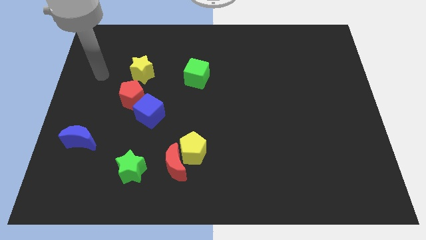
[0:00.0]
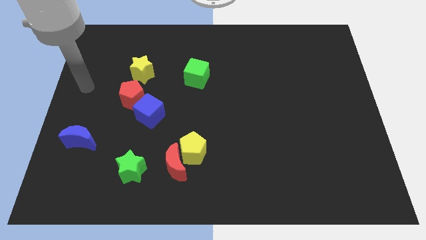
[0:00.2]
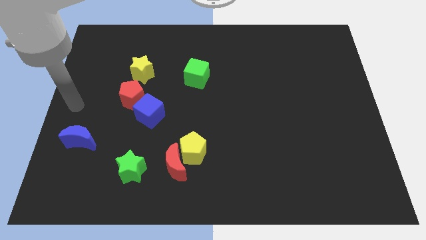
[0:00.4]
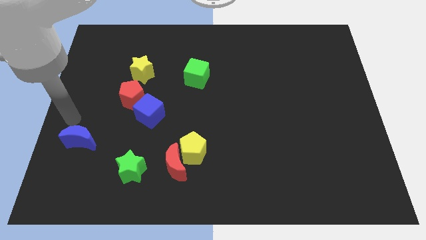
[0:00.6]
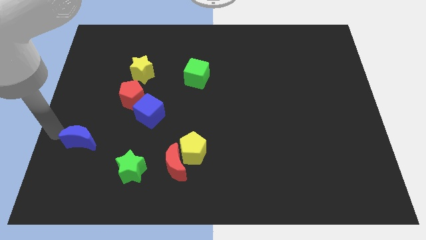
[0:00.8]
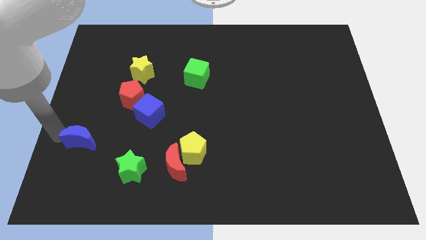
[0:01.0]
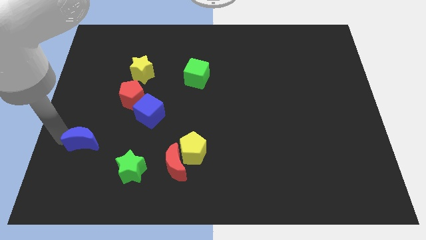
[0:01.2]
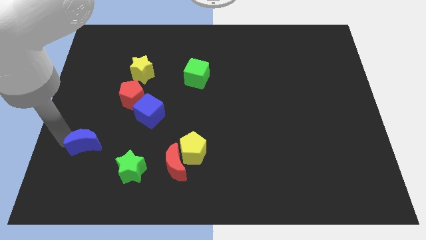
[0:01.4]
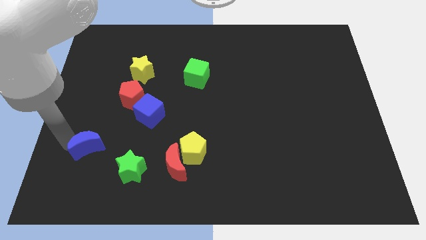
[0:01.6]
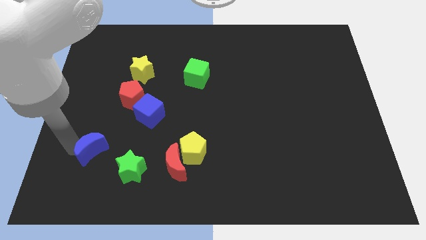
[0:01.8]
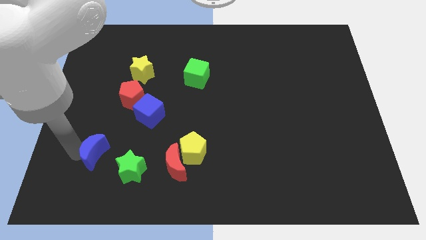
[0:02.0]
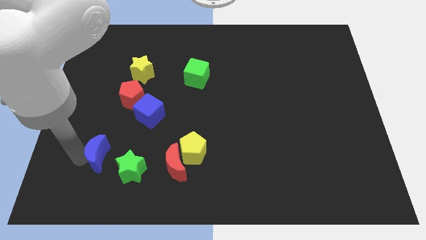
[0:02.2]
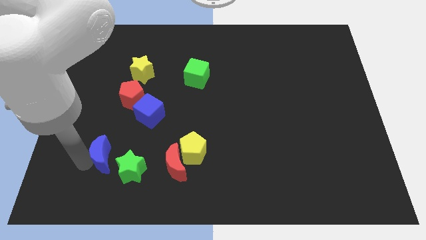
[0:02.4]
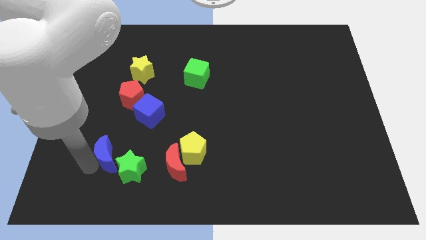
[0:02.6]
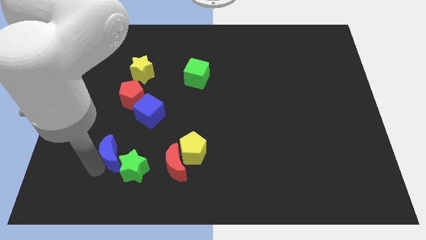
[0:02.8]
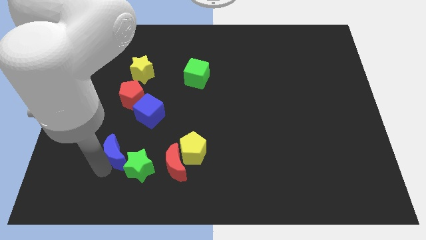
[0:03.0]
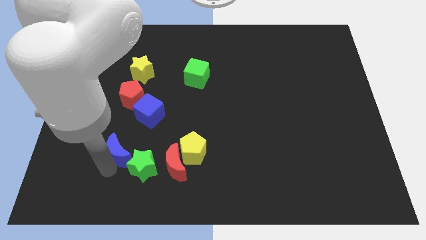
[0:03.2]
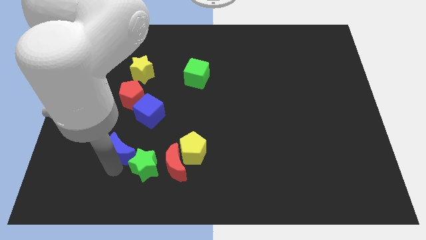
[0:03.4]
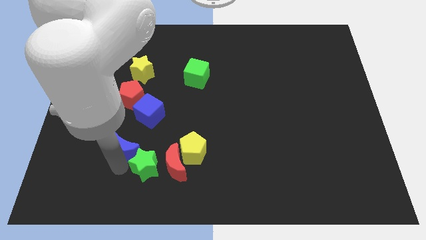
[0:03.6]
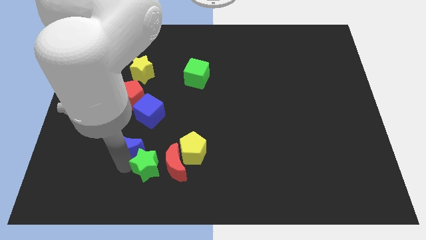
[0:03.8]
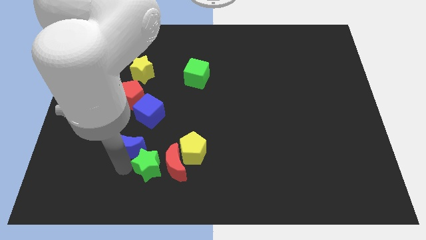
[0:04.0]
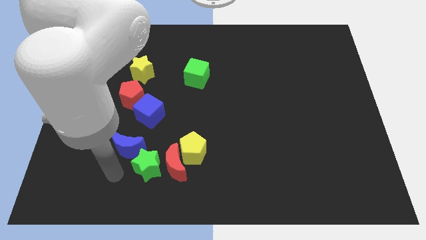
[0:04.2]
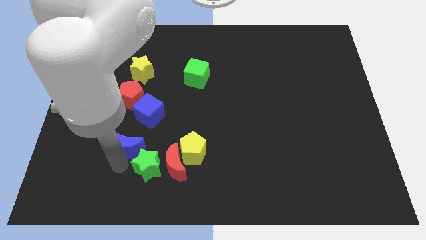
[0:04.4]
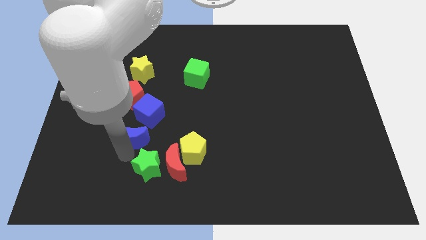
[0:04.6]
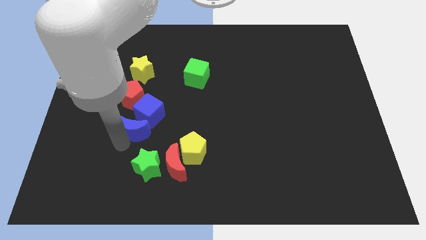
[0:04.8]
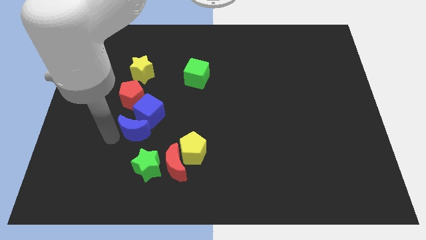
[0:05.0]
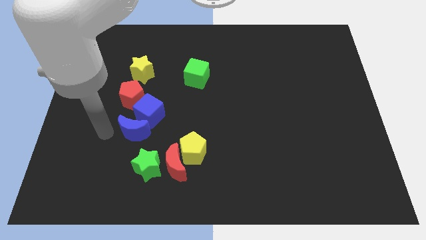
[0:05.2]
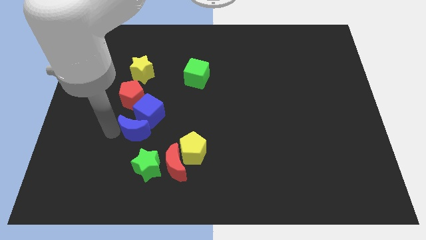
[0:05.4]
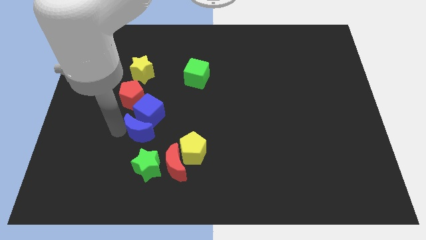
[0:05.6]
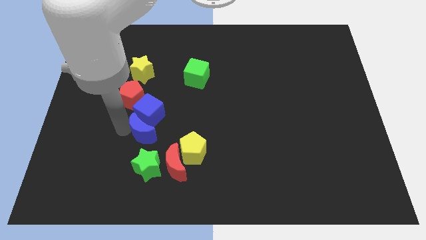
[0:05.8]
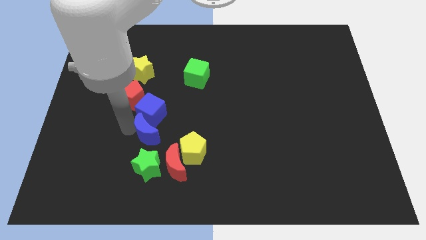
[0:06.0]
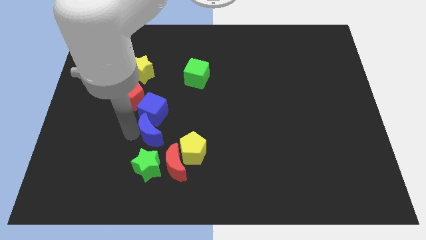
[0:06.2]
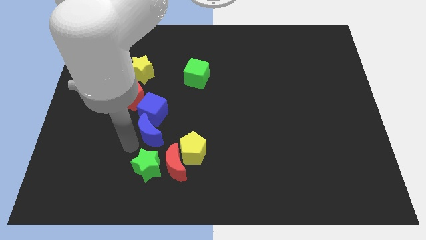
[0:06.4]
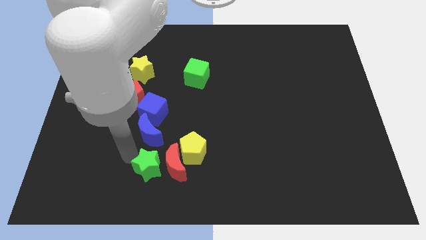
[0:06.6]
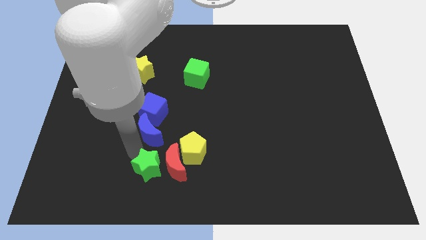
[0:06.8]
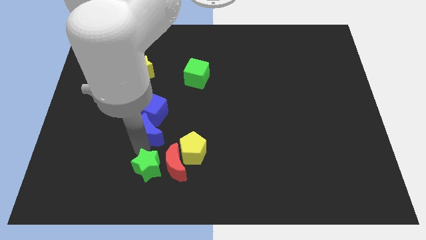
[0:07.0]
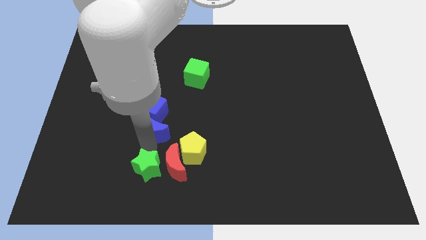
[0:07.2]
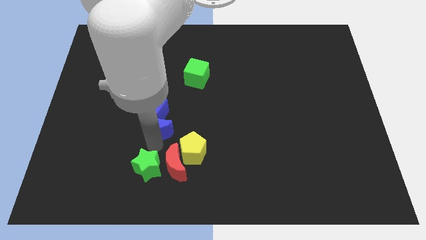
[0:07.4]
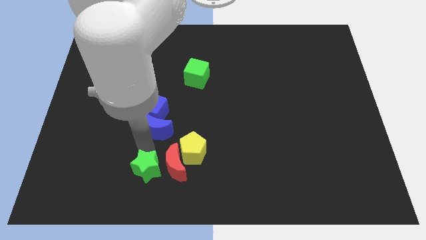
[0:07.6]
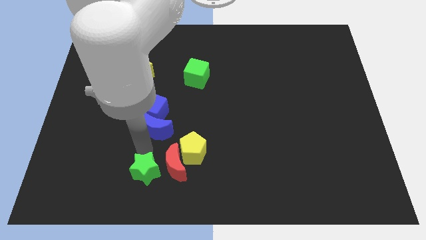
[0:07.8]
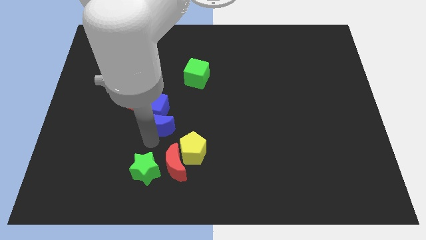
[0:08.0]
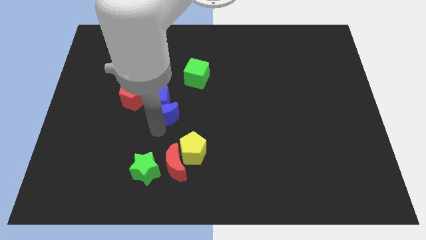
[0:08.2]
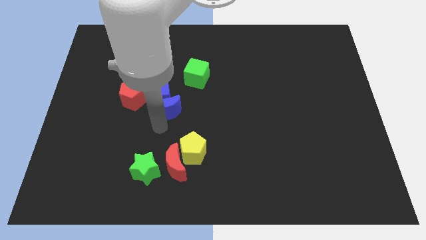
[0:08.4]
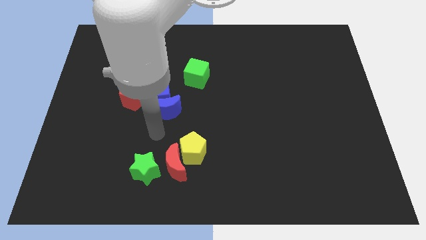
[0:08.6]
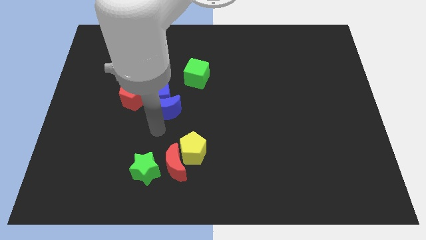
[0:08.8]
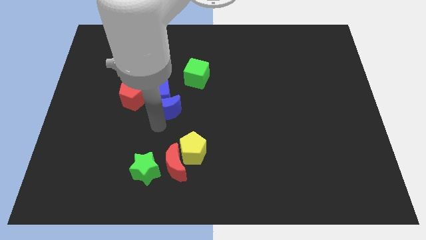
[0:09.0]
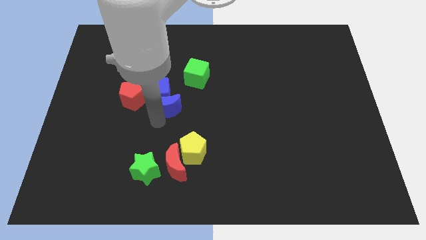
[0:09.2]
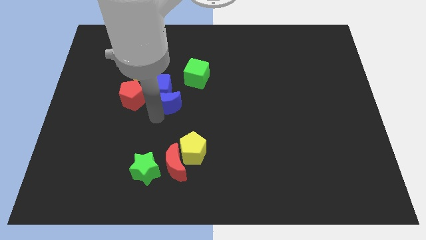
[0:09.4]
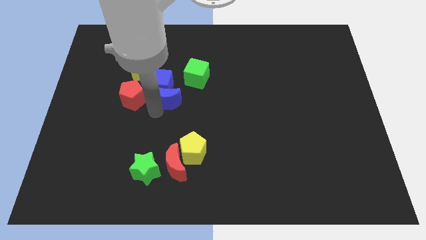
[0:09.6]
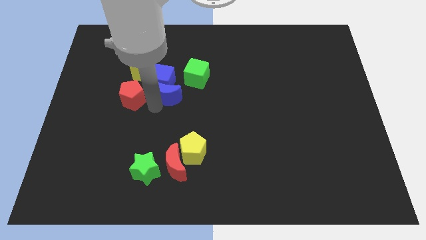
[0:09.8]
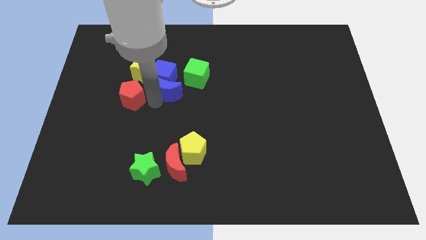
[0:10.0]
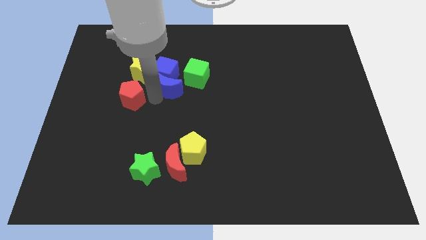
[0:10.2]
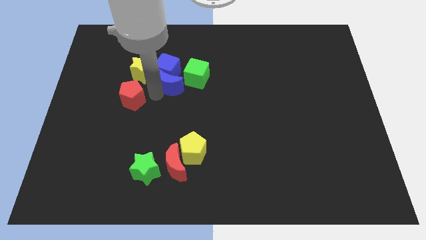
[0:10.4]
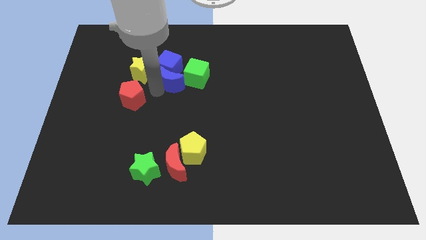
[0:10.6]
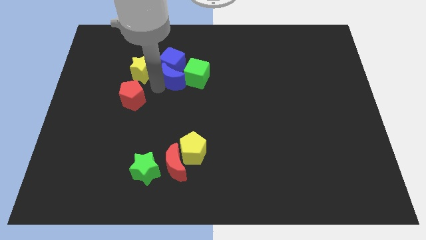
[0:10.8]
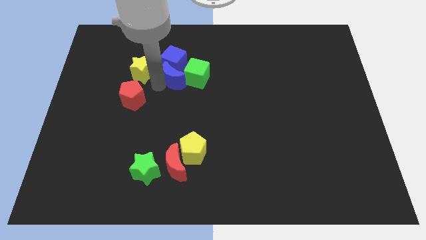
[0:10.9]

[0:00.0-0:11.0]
put the blue moon towards the green cube

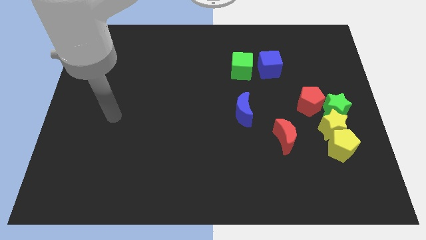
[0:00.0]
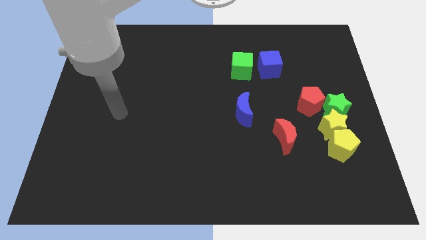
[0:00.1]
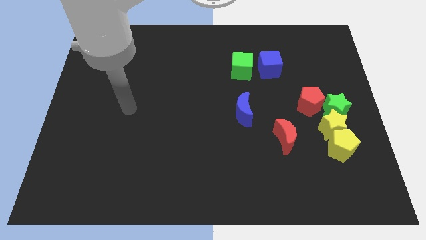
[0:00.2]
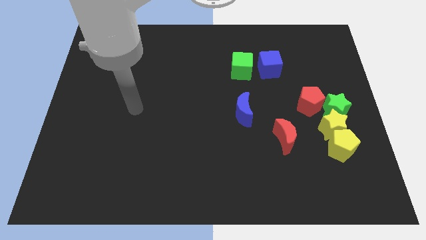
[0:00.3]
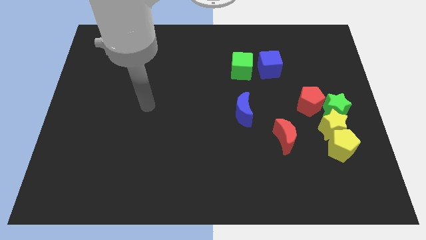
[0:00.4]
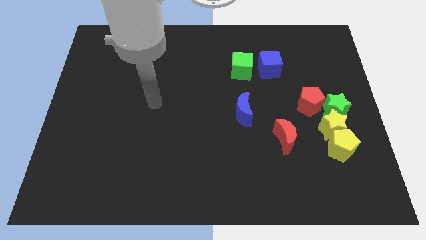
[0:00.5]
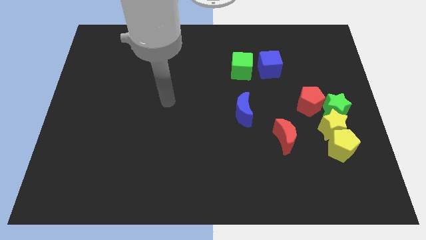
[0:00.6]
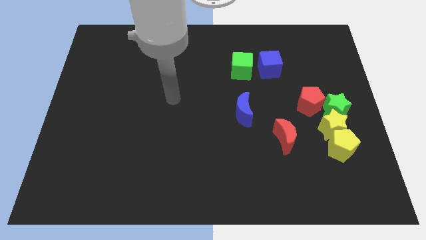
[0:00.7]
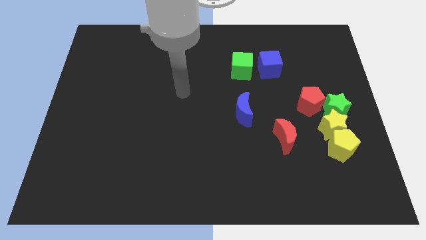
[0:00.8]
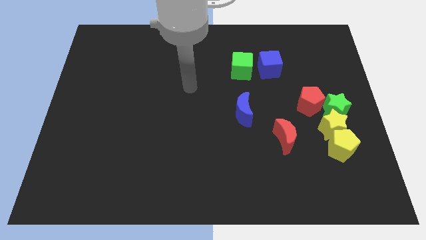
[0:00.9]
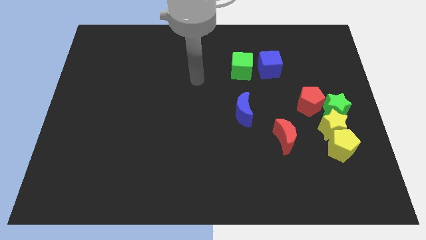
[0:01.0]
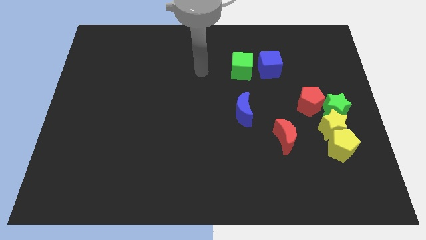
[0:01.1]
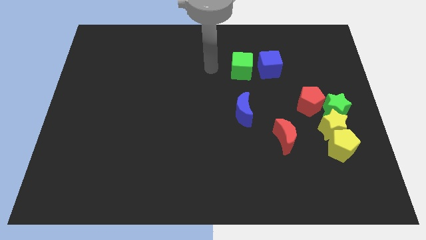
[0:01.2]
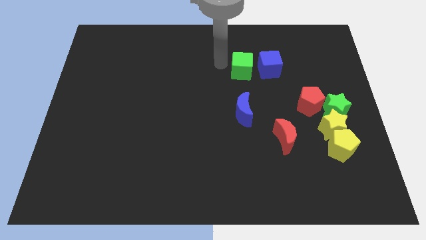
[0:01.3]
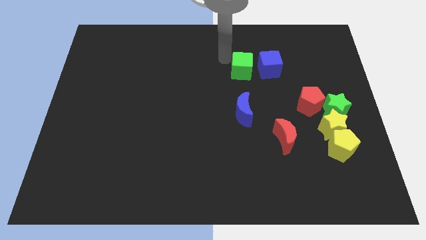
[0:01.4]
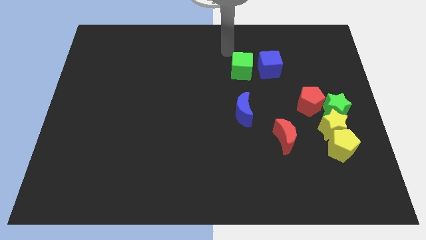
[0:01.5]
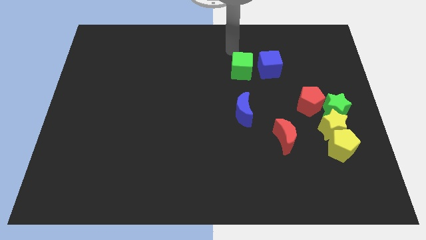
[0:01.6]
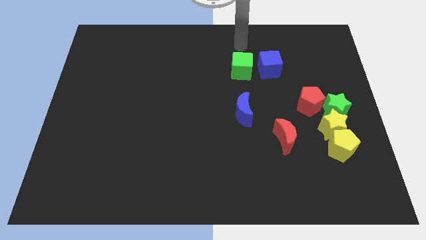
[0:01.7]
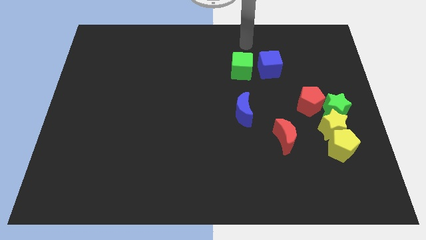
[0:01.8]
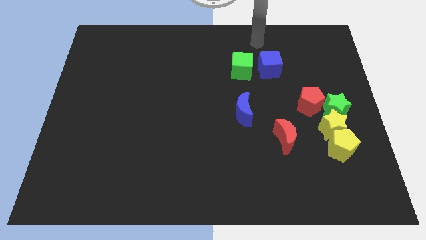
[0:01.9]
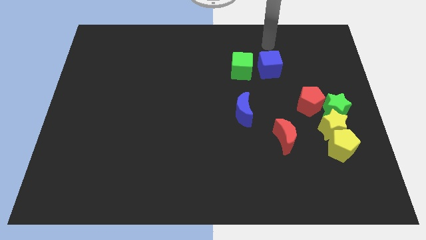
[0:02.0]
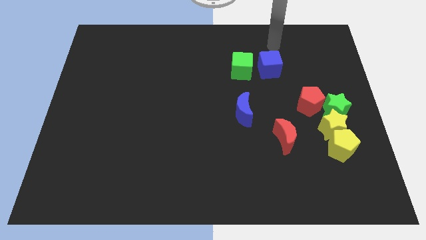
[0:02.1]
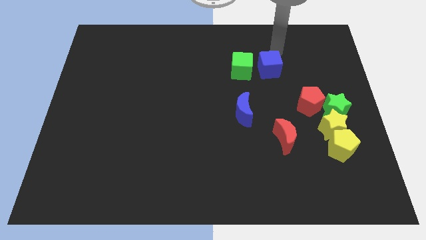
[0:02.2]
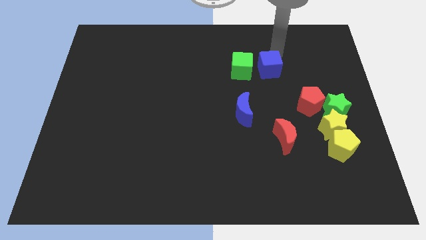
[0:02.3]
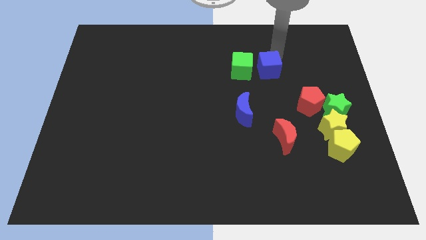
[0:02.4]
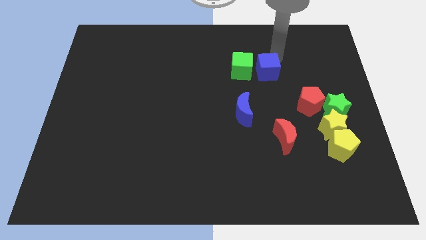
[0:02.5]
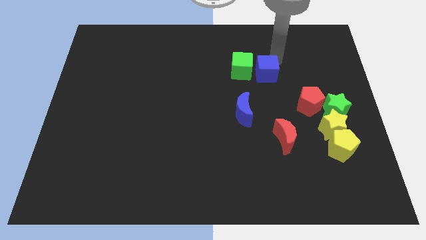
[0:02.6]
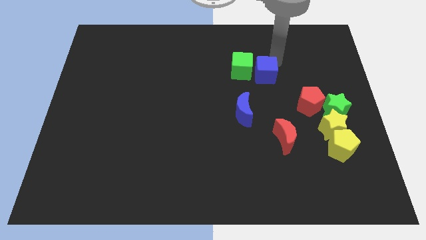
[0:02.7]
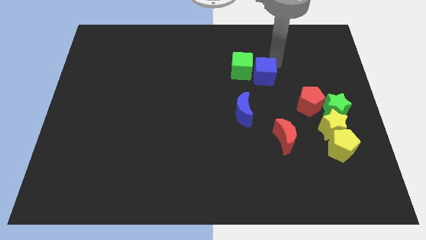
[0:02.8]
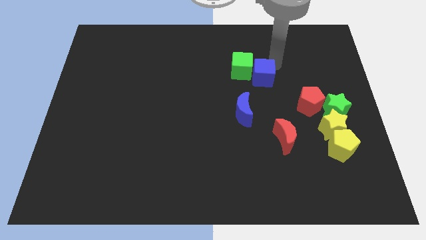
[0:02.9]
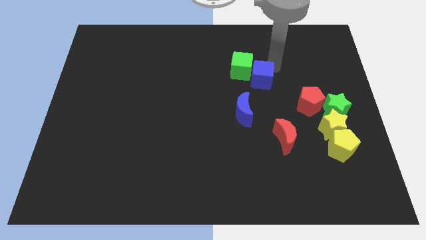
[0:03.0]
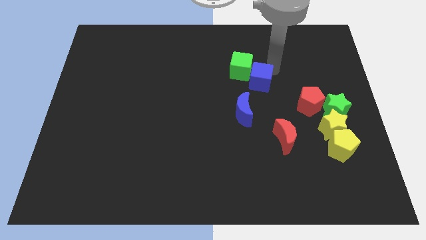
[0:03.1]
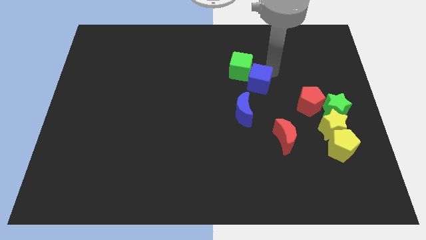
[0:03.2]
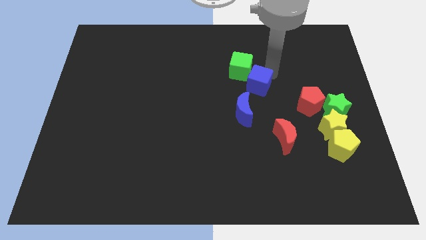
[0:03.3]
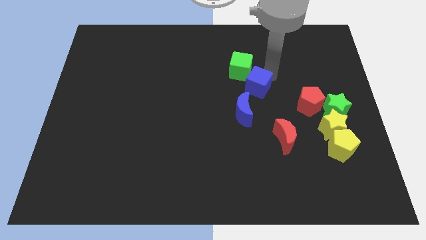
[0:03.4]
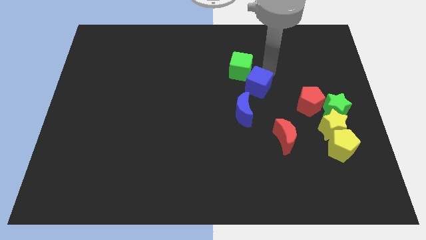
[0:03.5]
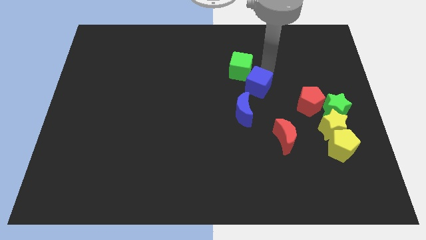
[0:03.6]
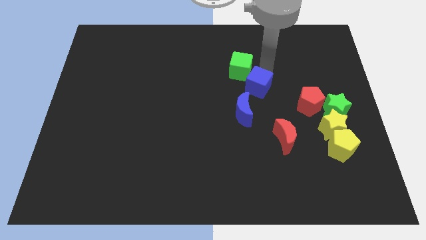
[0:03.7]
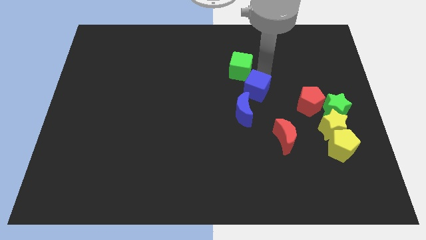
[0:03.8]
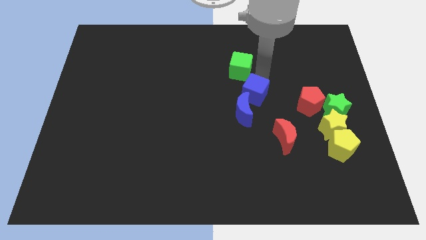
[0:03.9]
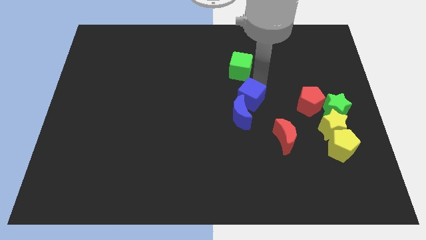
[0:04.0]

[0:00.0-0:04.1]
move the blue cube next to the blue moon
